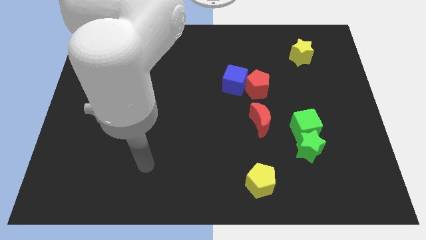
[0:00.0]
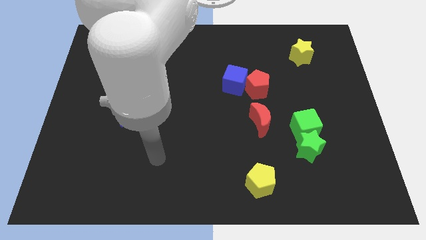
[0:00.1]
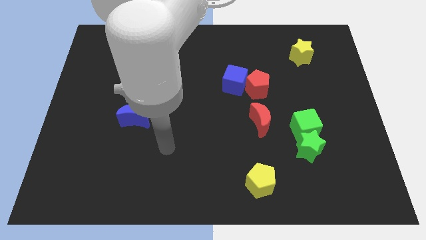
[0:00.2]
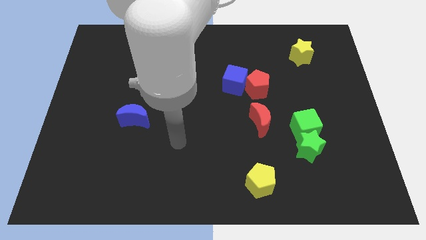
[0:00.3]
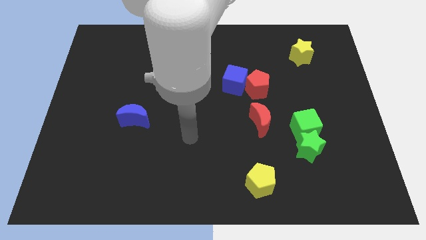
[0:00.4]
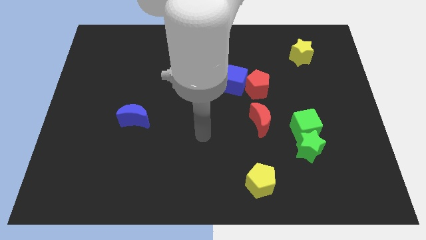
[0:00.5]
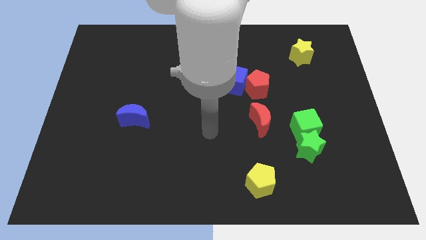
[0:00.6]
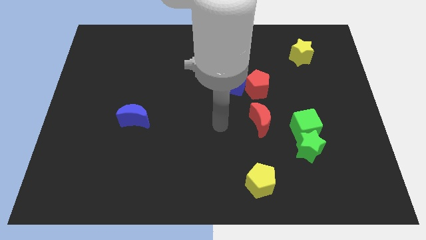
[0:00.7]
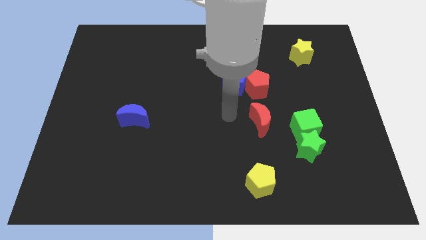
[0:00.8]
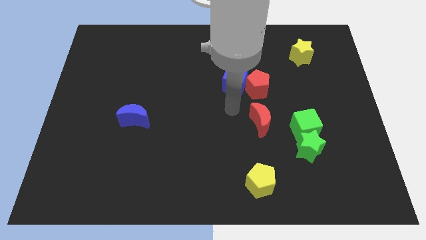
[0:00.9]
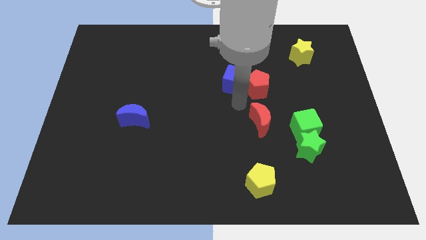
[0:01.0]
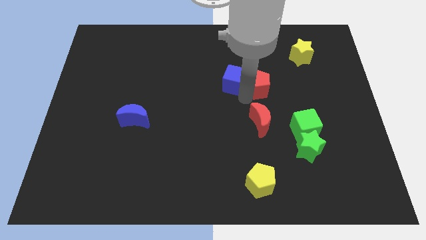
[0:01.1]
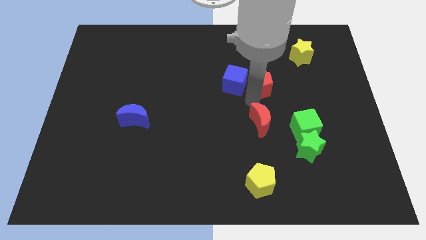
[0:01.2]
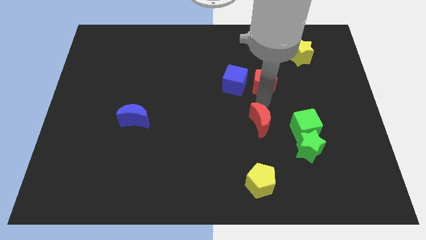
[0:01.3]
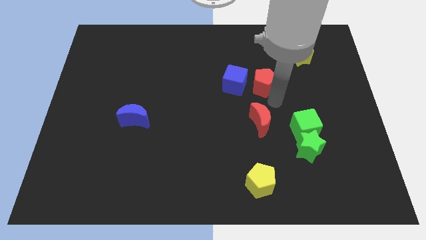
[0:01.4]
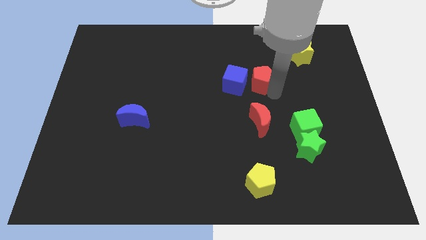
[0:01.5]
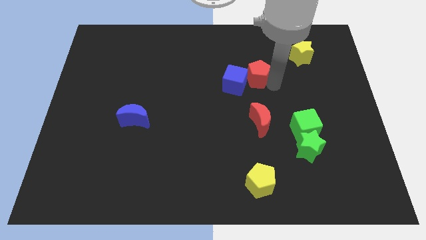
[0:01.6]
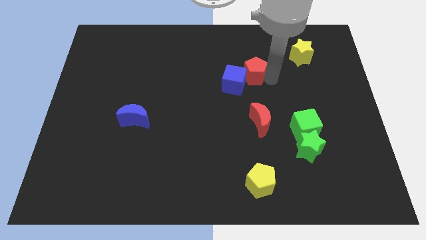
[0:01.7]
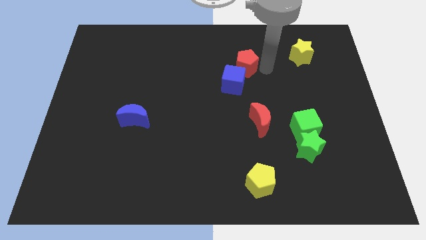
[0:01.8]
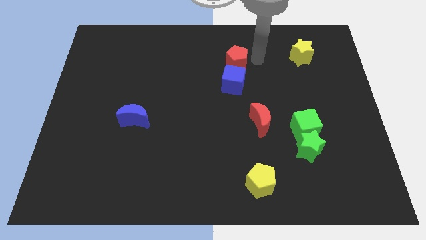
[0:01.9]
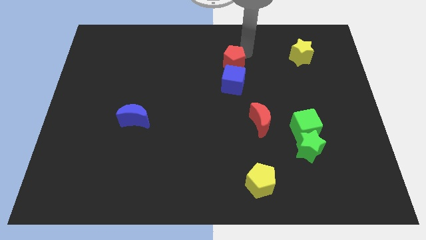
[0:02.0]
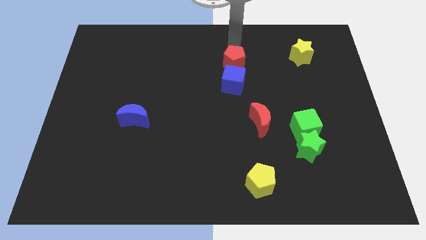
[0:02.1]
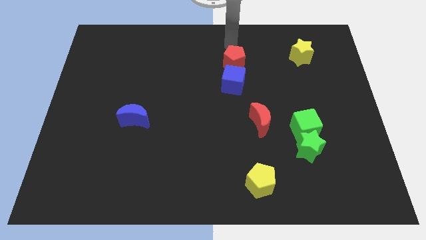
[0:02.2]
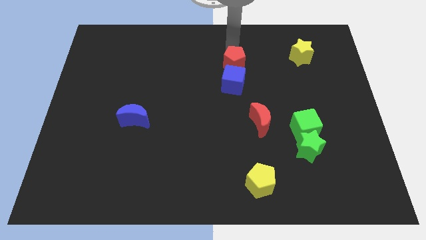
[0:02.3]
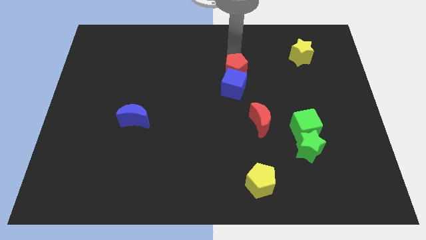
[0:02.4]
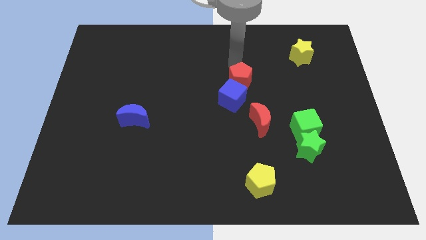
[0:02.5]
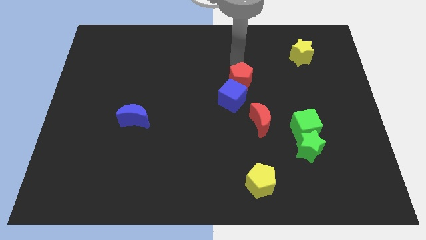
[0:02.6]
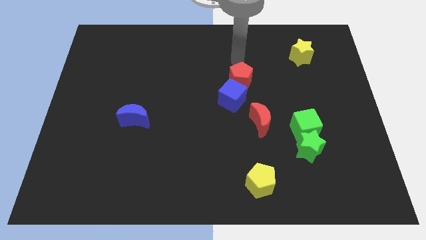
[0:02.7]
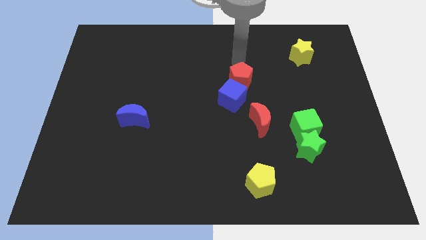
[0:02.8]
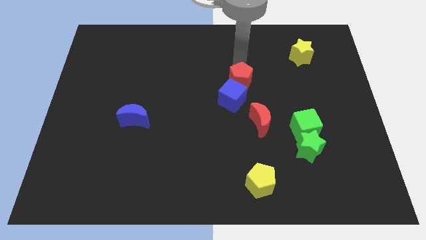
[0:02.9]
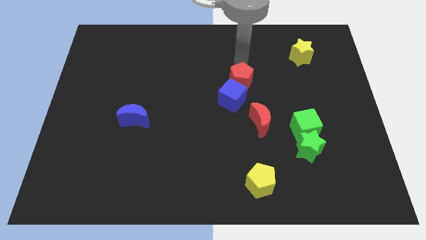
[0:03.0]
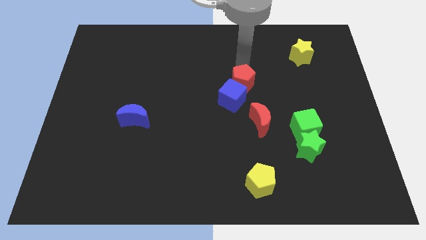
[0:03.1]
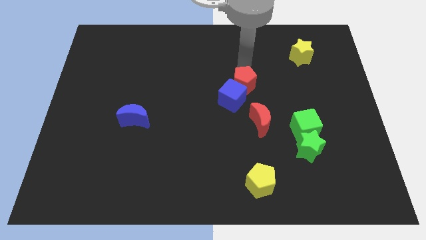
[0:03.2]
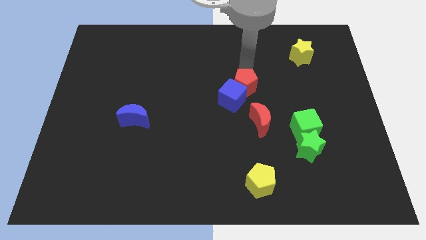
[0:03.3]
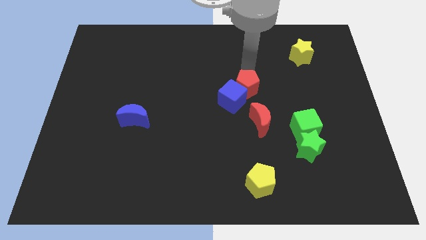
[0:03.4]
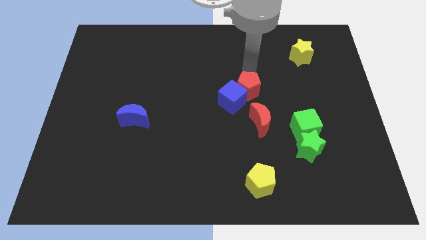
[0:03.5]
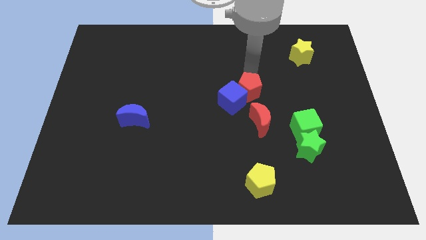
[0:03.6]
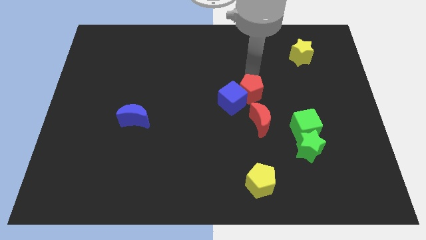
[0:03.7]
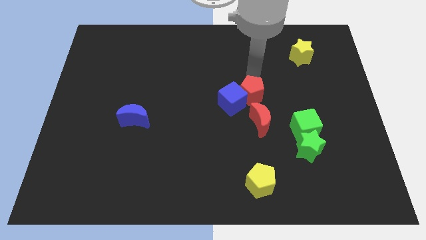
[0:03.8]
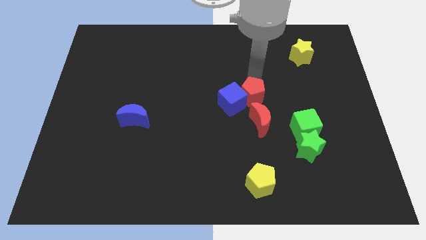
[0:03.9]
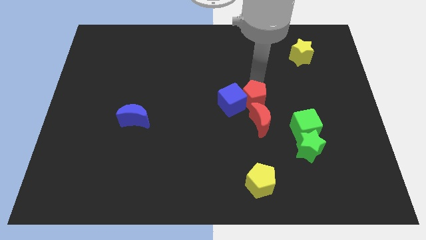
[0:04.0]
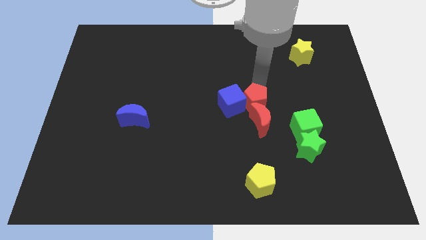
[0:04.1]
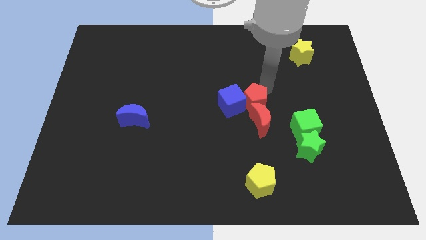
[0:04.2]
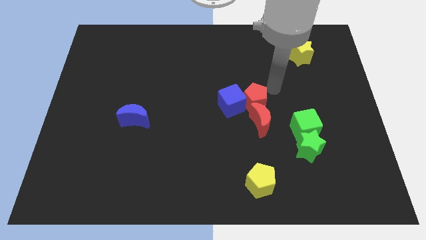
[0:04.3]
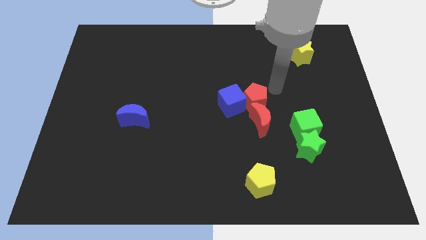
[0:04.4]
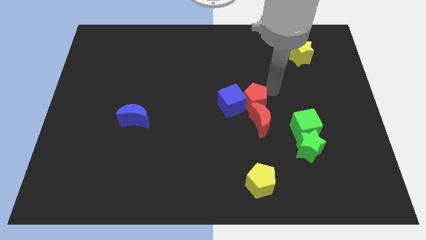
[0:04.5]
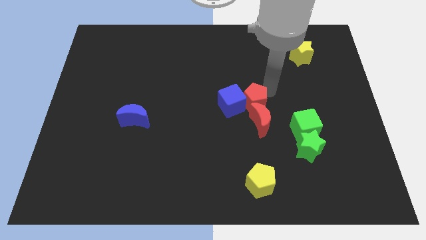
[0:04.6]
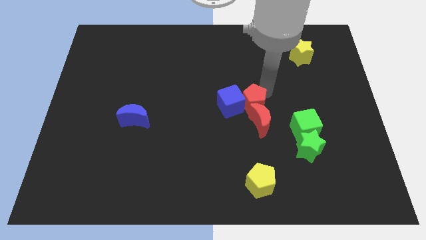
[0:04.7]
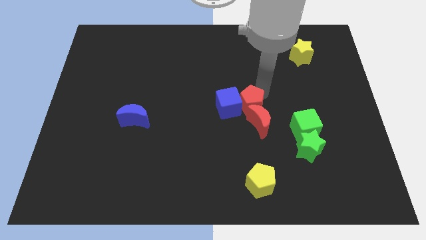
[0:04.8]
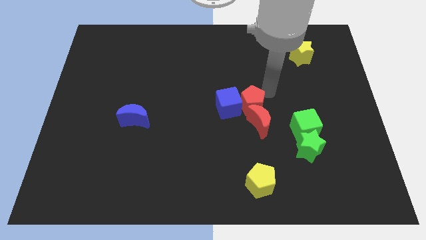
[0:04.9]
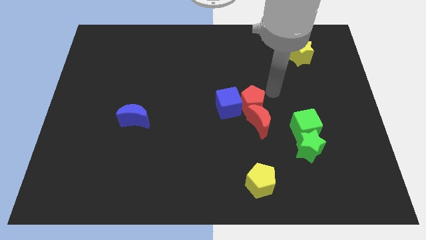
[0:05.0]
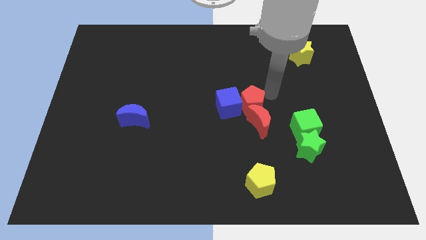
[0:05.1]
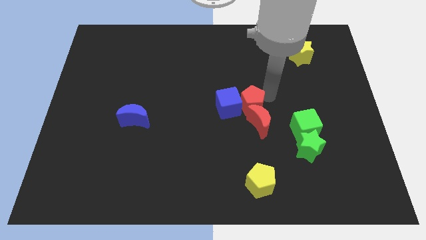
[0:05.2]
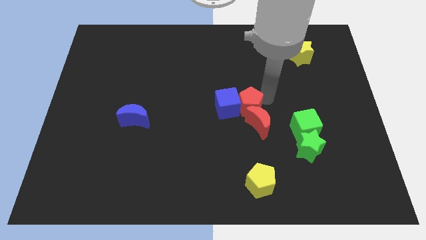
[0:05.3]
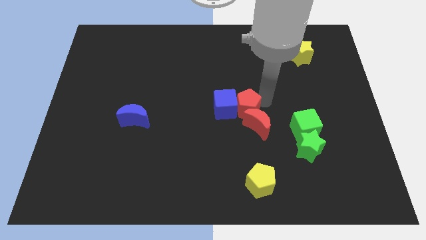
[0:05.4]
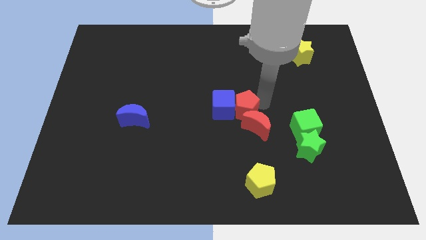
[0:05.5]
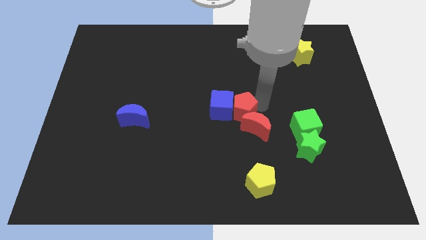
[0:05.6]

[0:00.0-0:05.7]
slightly slide the red pentagon downwards and to the left diagonally

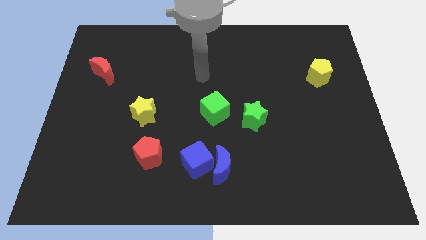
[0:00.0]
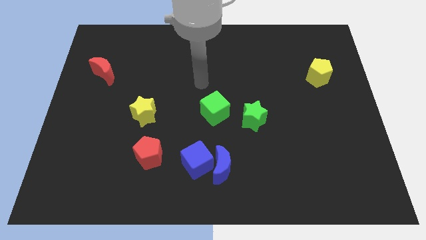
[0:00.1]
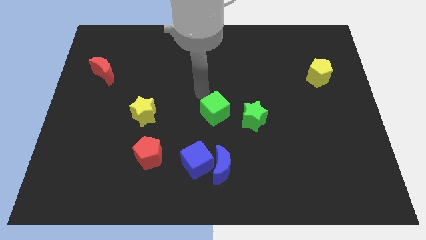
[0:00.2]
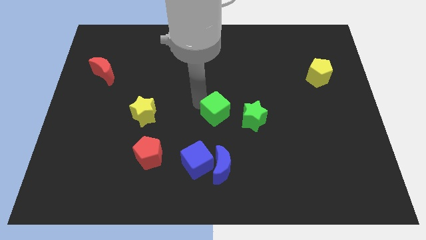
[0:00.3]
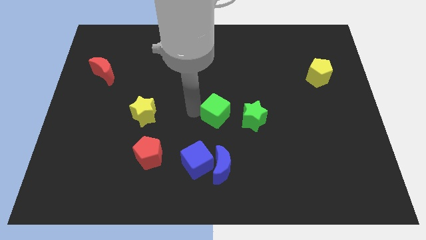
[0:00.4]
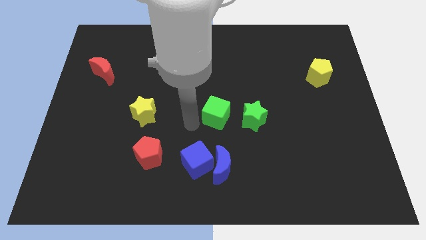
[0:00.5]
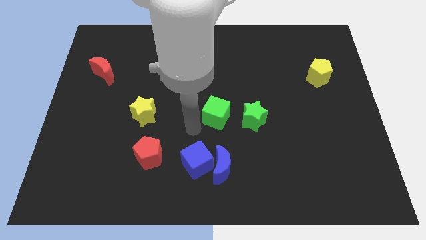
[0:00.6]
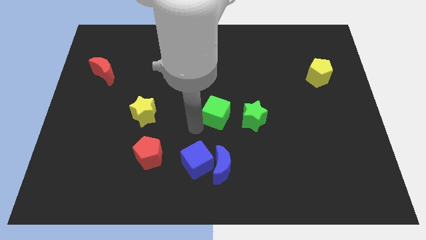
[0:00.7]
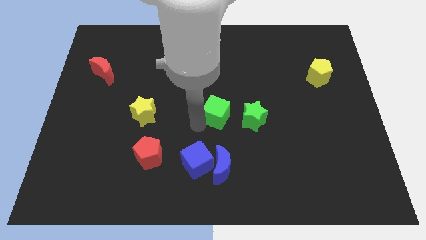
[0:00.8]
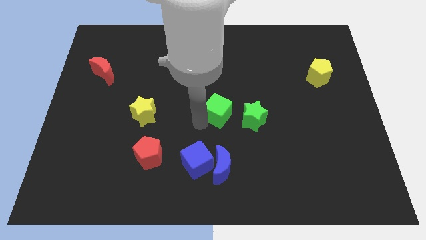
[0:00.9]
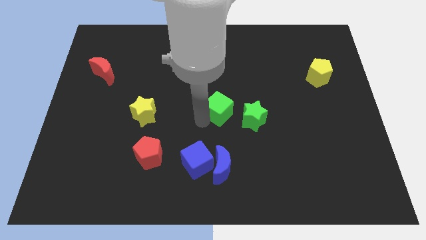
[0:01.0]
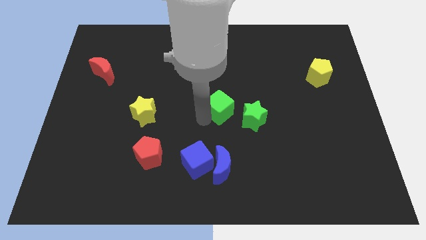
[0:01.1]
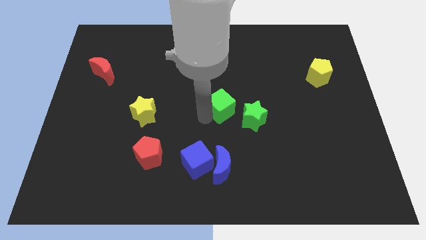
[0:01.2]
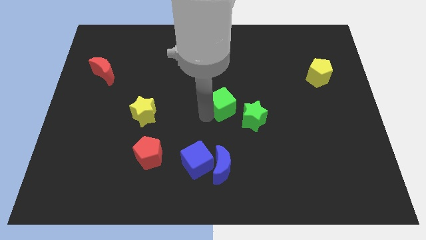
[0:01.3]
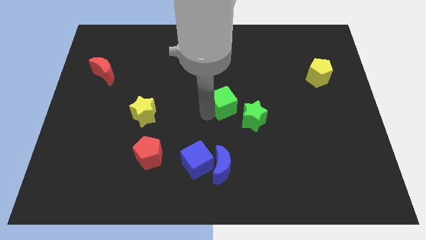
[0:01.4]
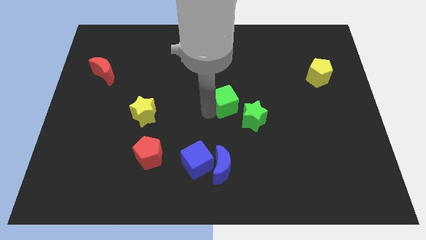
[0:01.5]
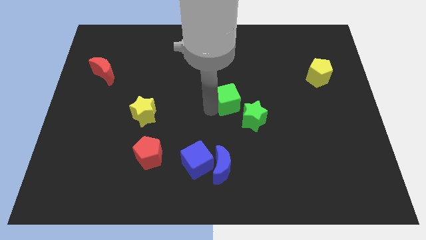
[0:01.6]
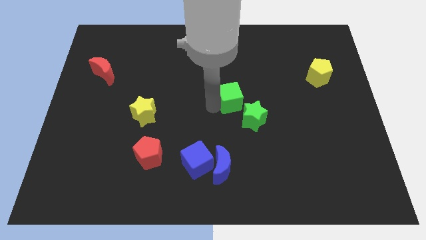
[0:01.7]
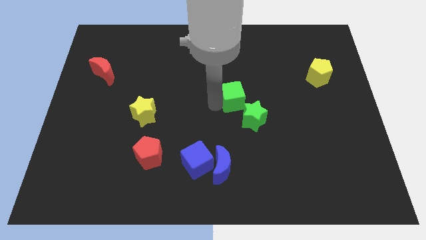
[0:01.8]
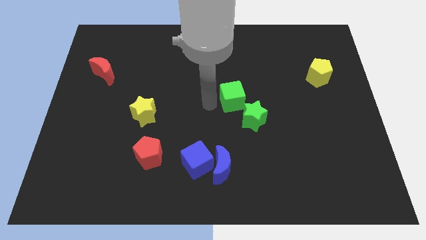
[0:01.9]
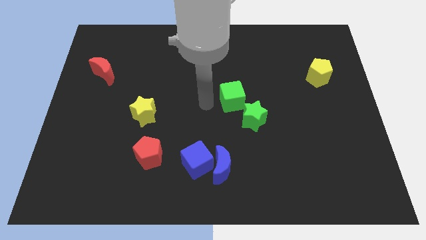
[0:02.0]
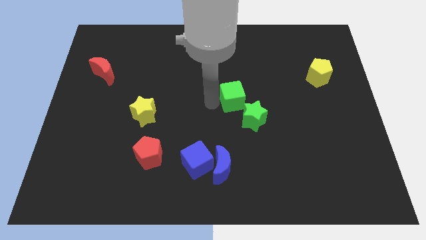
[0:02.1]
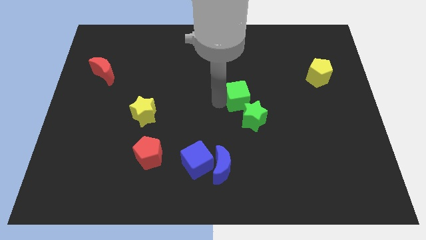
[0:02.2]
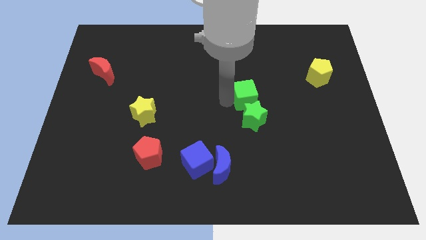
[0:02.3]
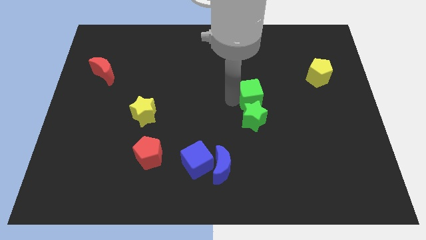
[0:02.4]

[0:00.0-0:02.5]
move the green cube to the right a little
